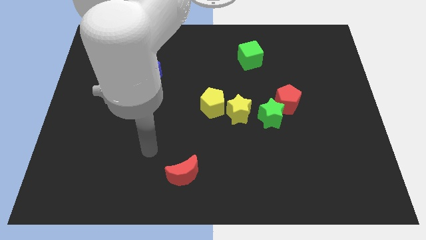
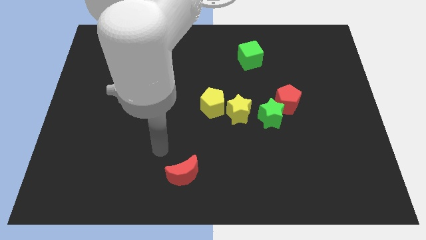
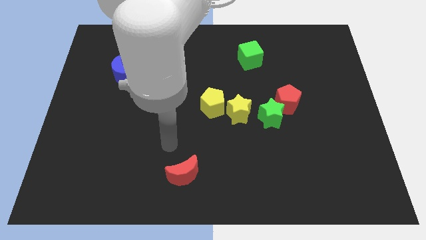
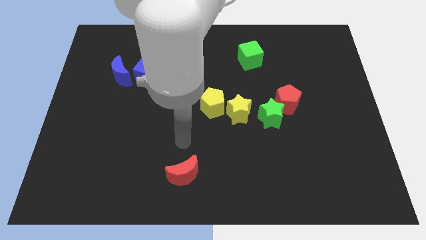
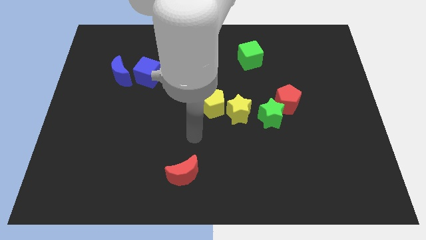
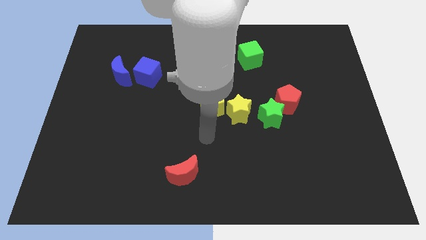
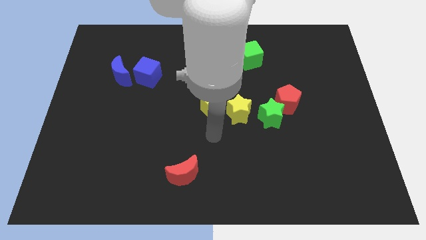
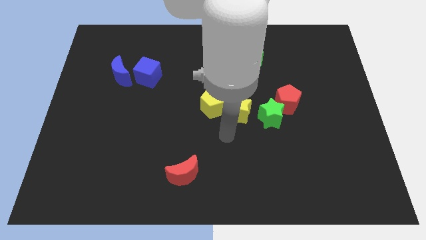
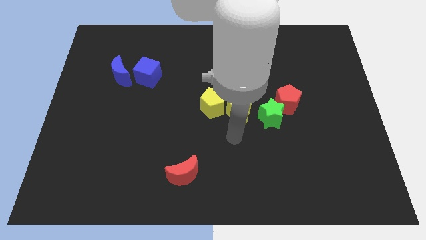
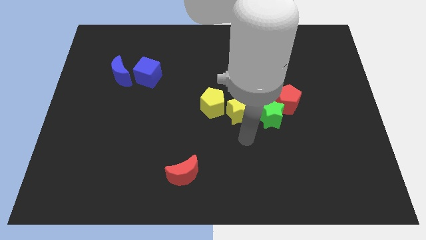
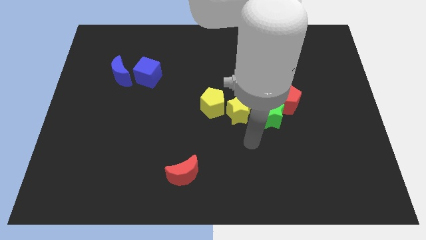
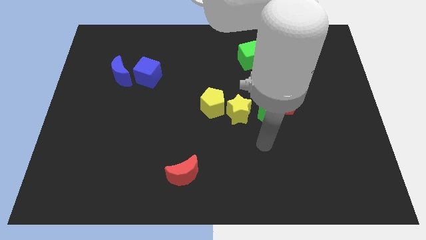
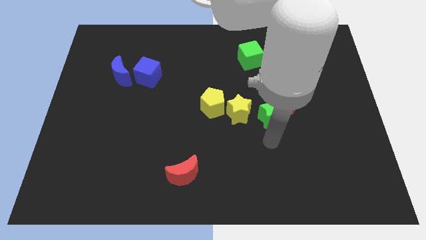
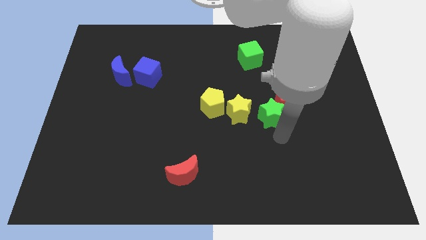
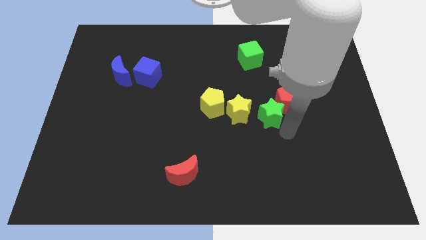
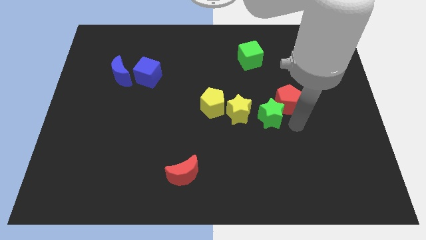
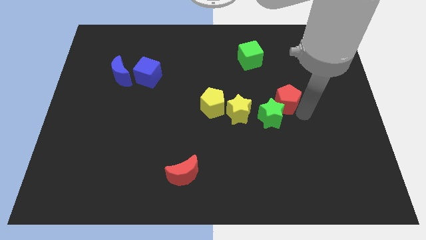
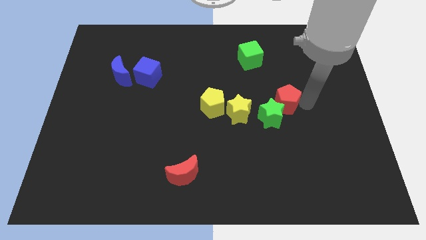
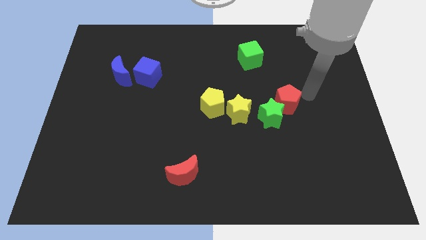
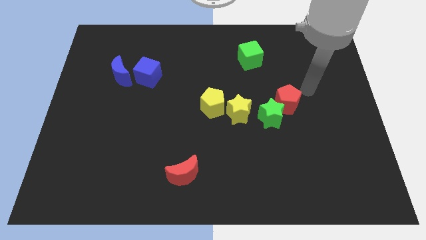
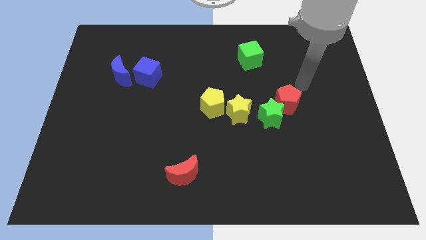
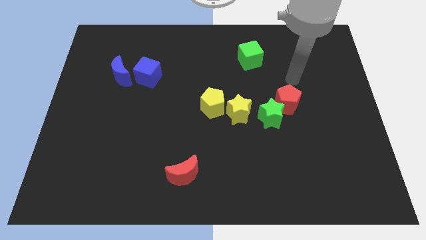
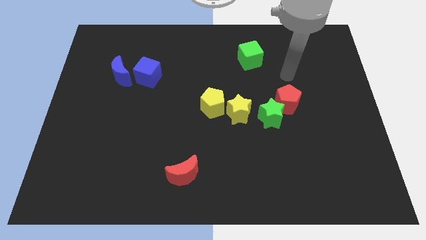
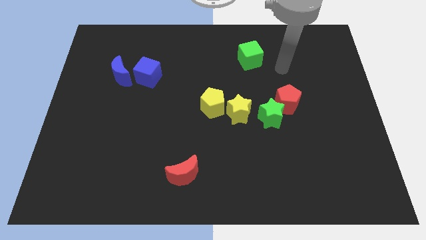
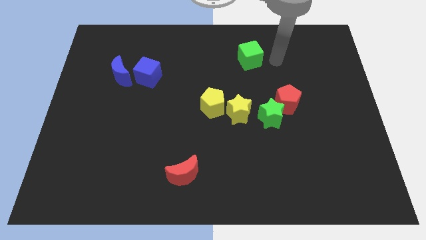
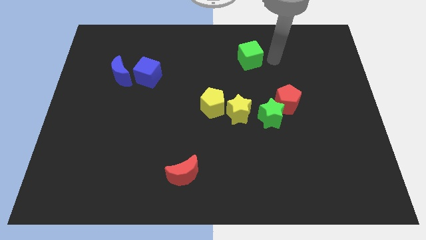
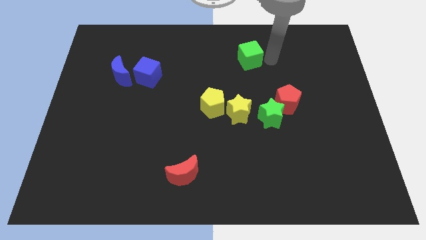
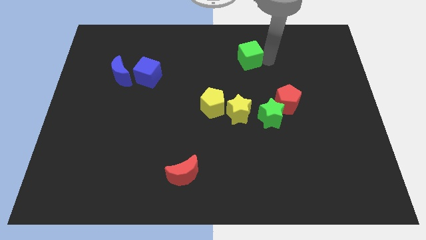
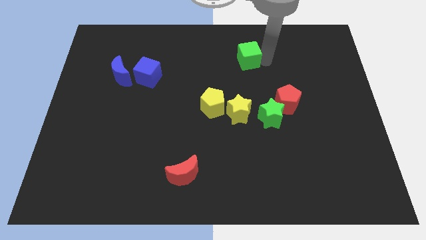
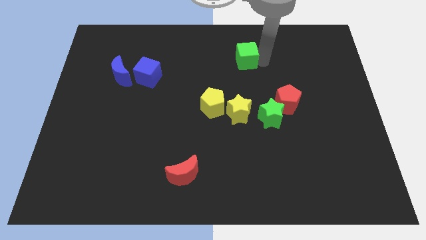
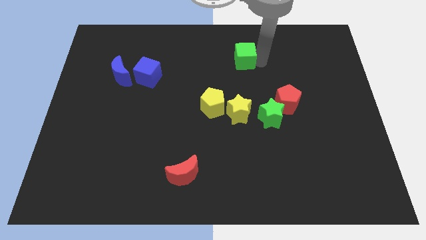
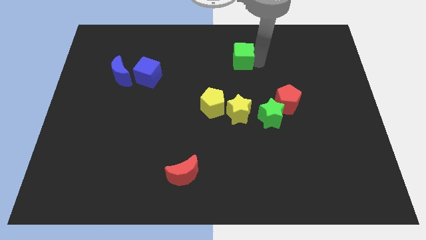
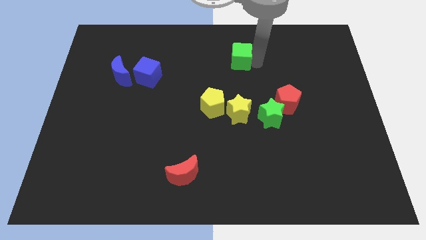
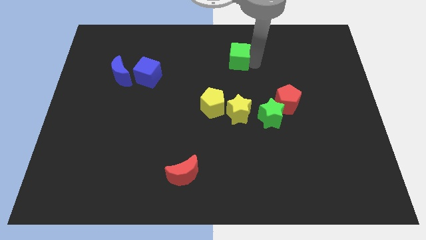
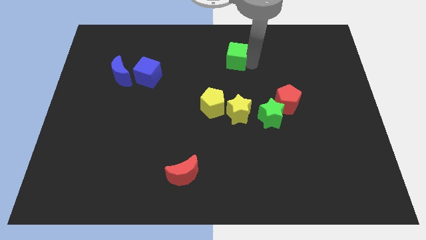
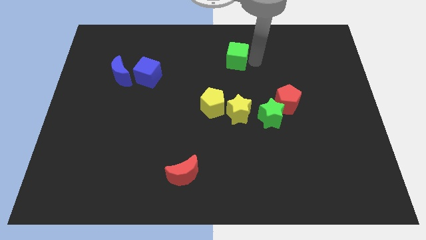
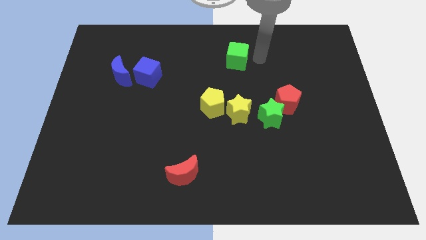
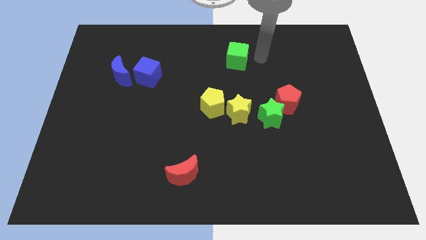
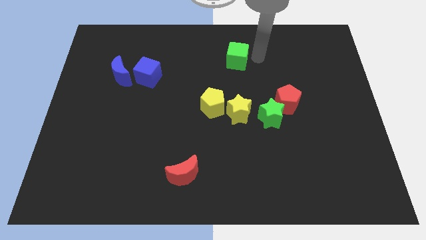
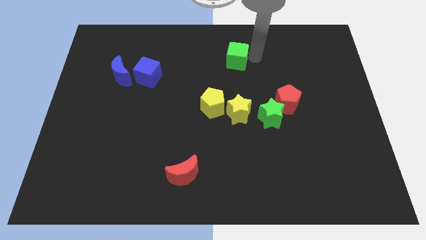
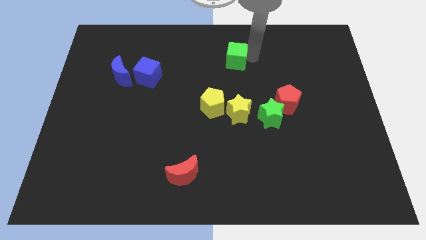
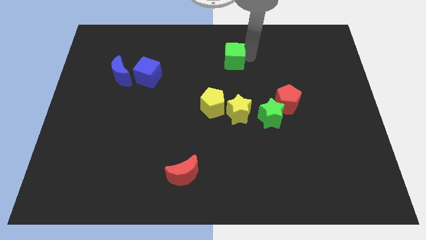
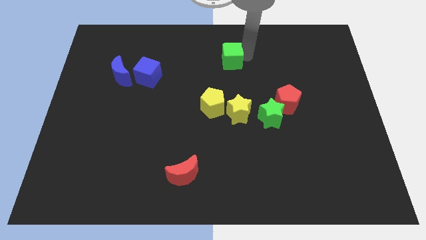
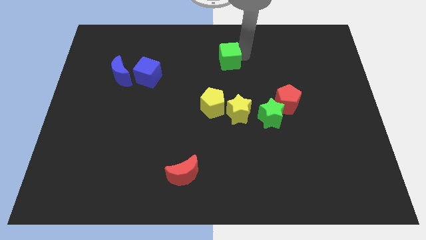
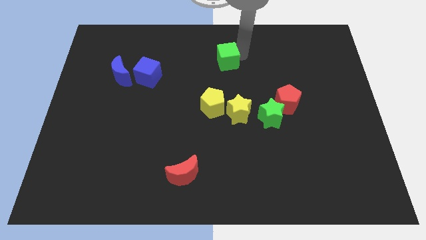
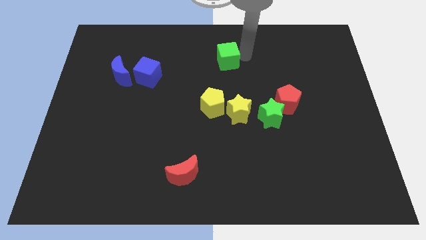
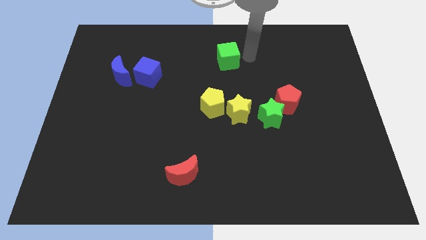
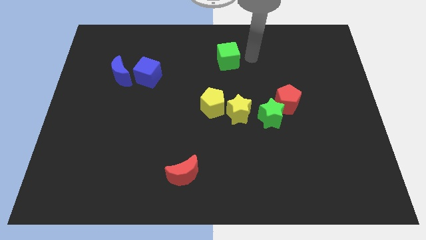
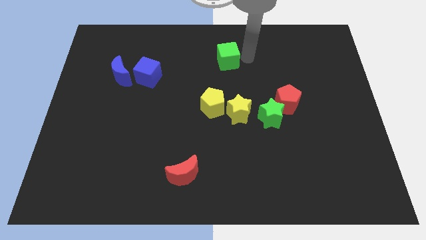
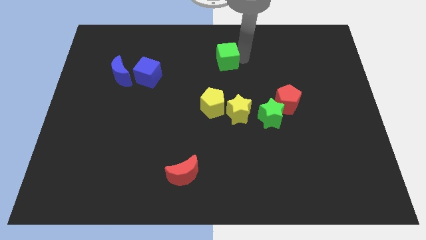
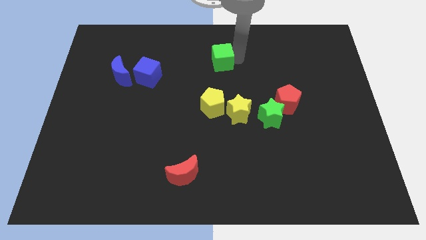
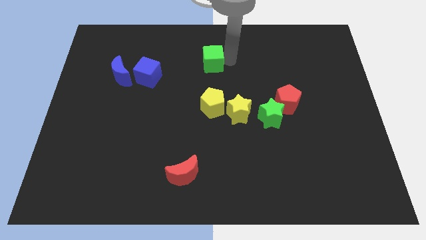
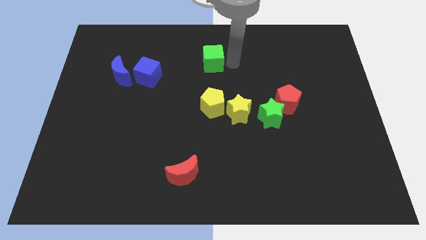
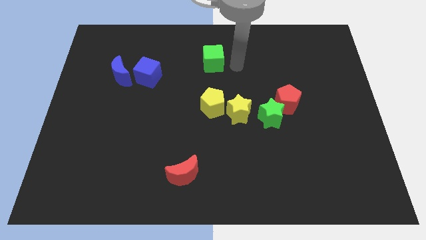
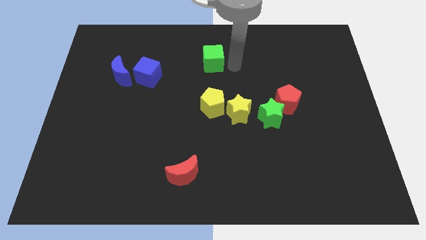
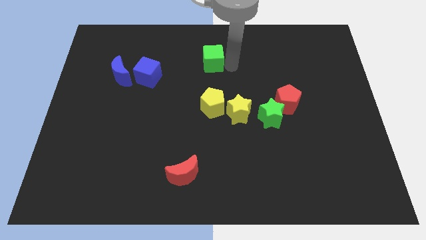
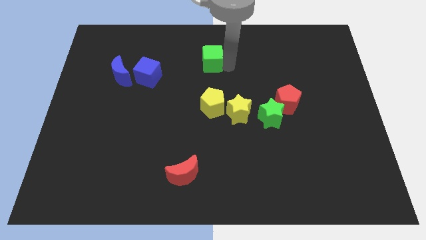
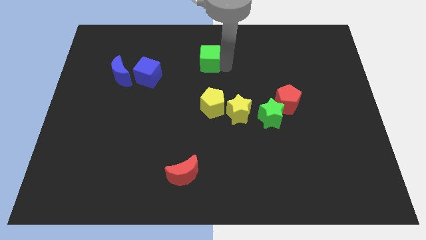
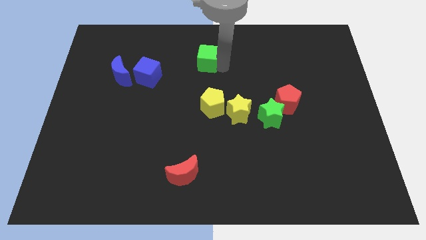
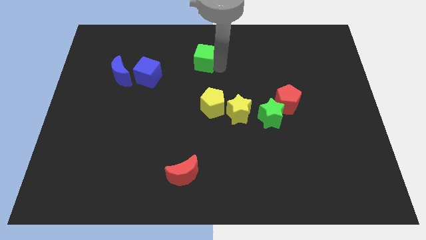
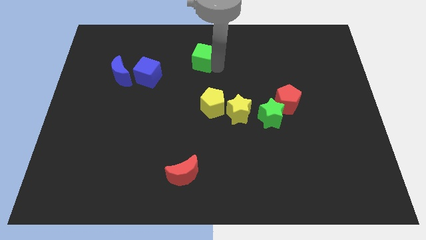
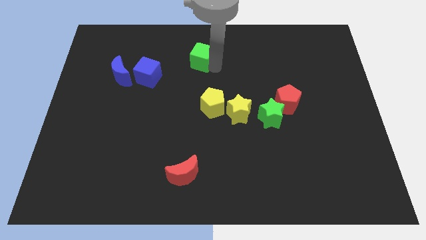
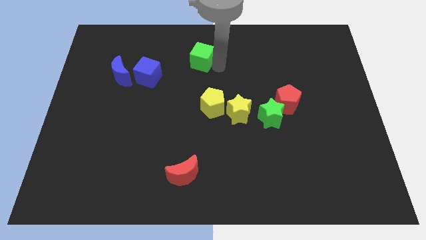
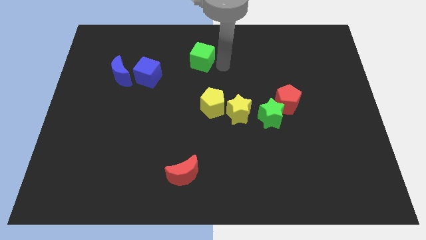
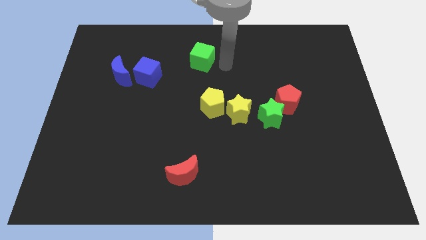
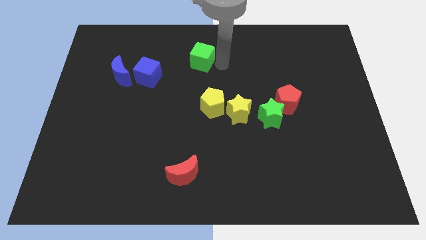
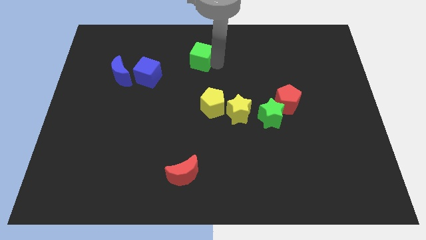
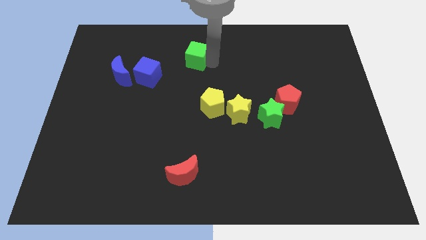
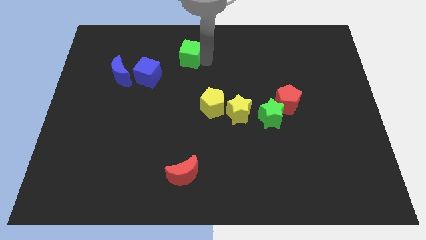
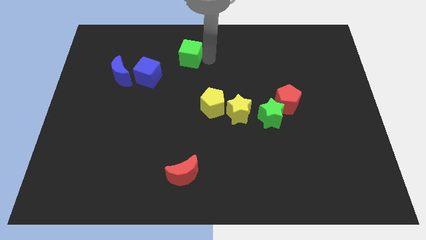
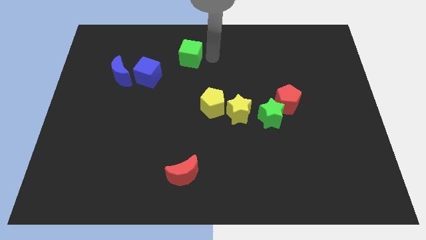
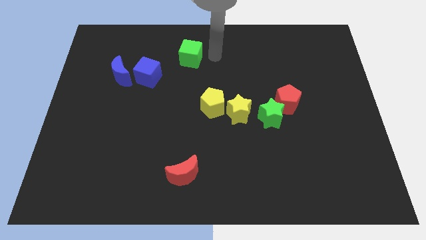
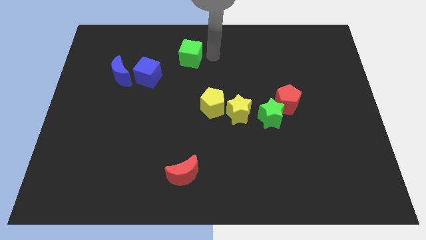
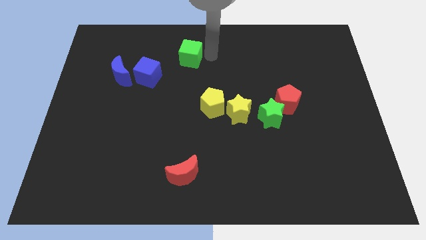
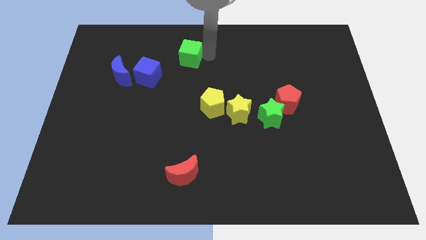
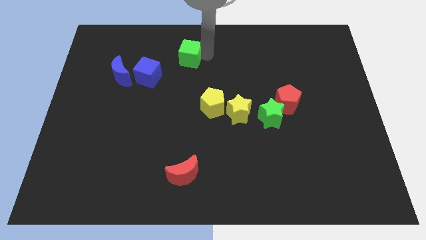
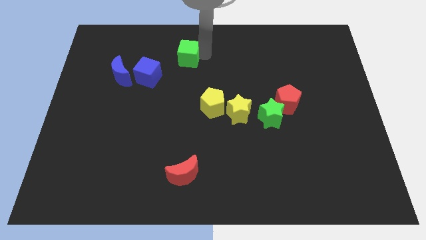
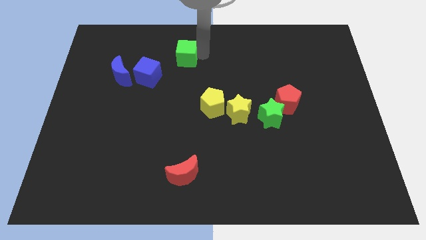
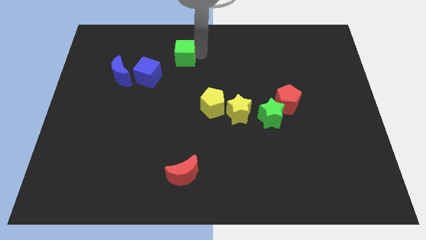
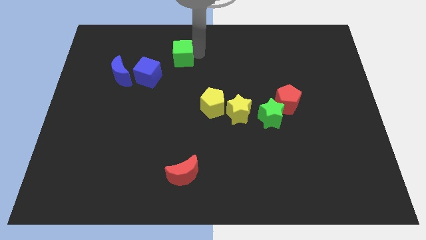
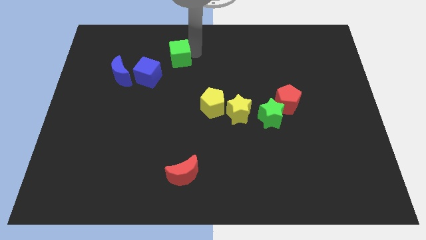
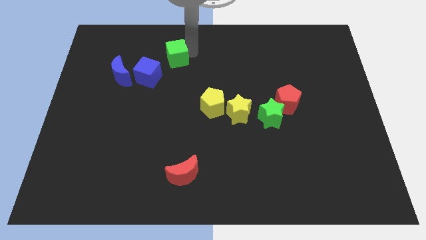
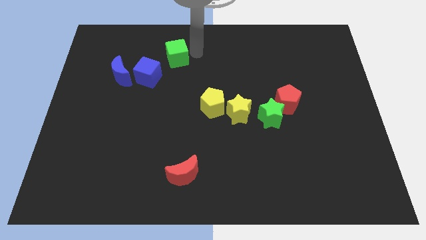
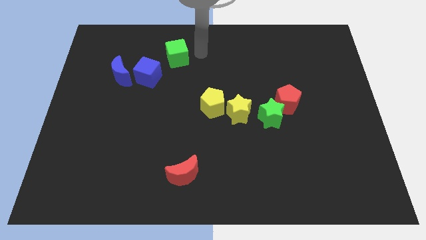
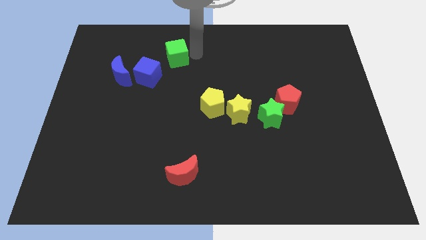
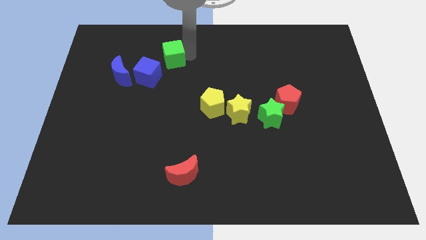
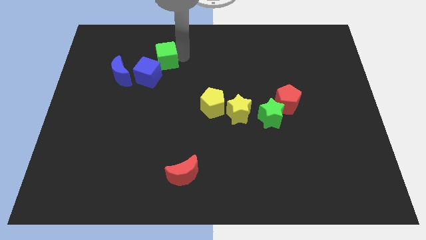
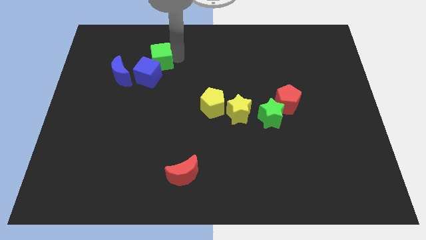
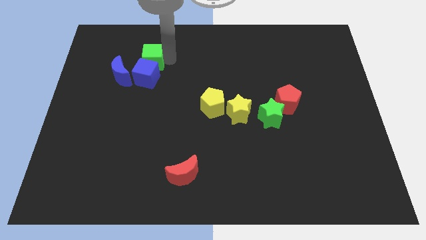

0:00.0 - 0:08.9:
push the green cube to the top left side of the blue cube
